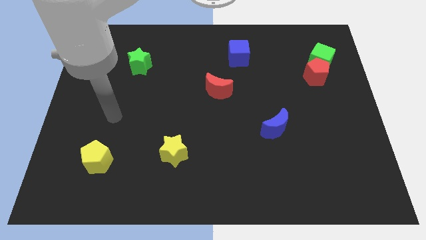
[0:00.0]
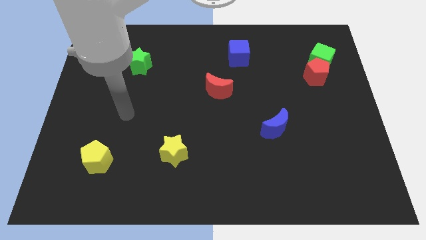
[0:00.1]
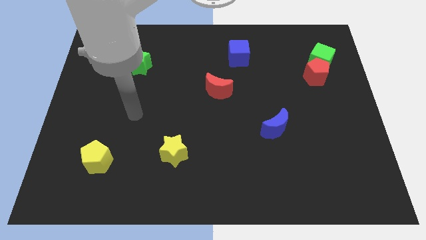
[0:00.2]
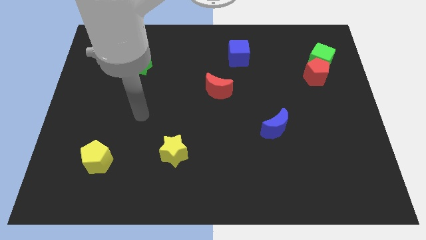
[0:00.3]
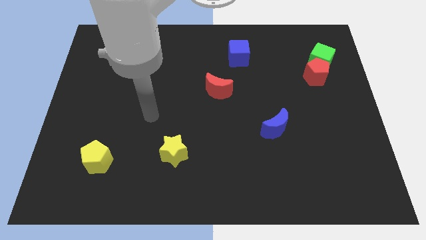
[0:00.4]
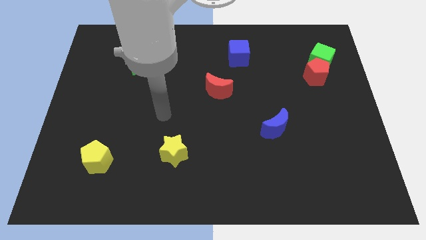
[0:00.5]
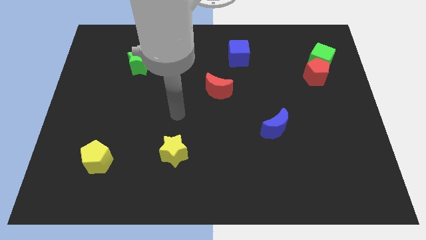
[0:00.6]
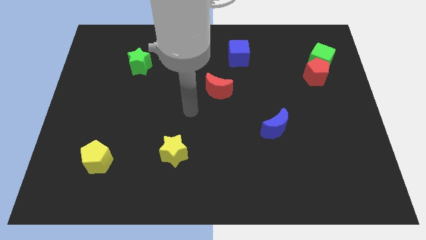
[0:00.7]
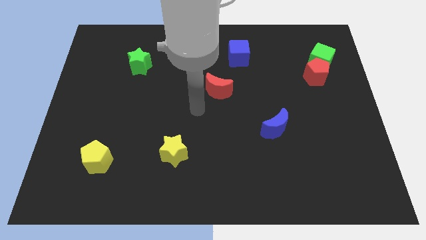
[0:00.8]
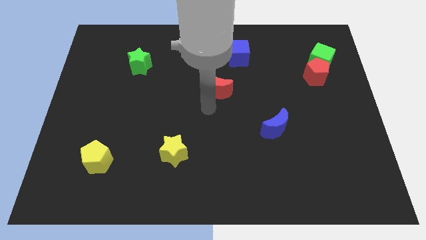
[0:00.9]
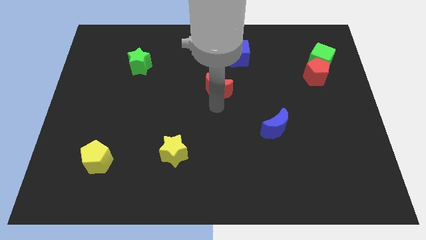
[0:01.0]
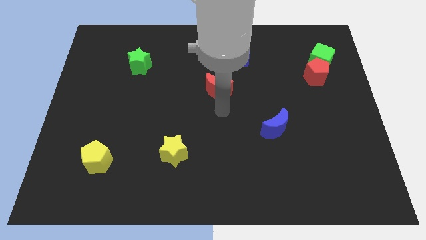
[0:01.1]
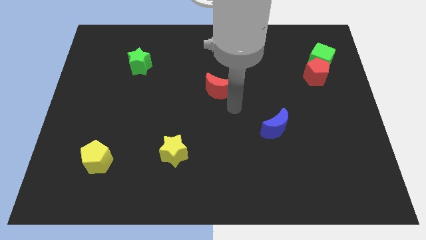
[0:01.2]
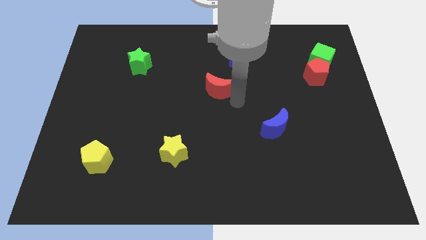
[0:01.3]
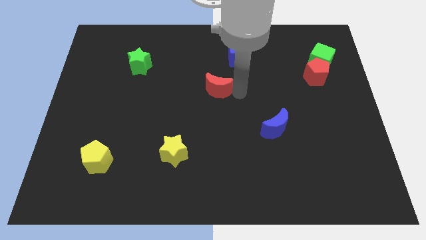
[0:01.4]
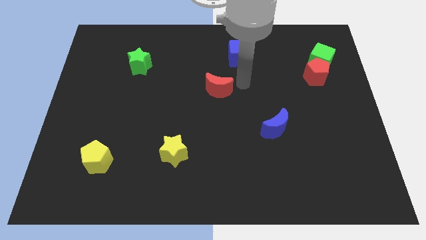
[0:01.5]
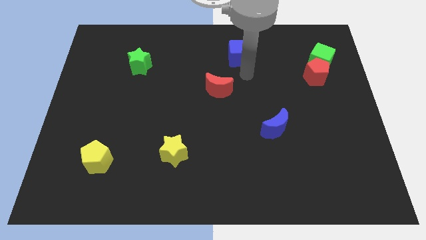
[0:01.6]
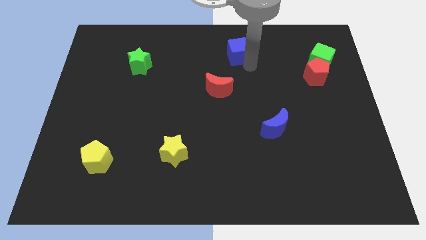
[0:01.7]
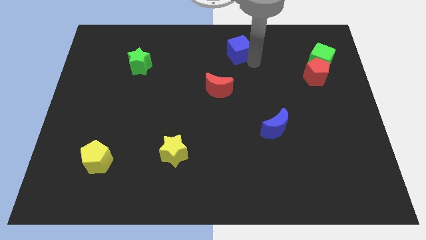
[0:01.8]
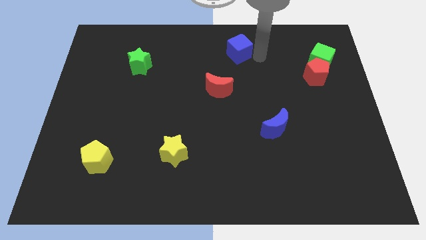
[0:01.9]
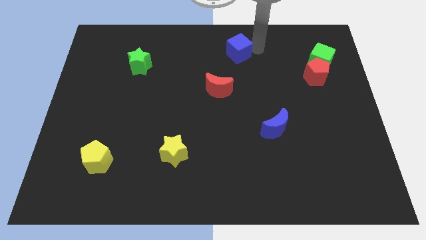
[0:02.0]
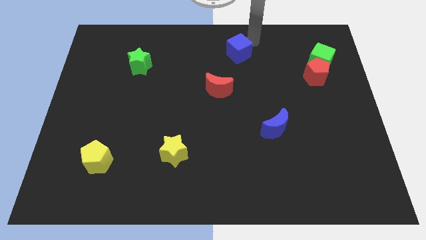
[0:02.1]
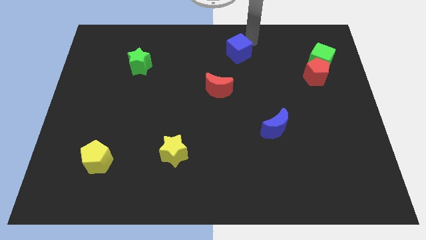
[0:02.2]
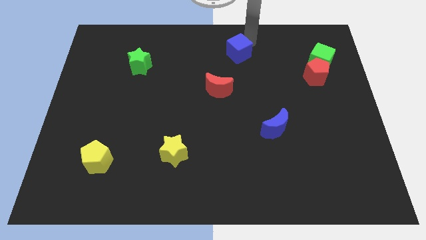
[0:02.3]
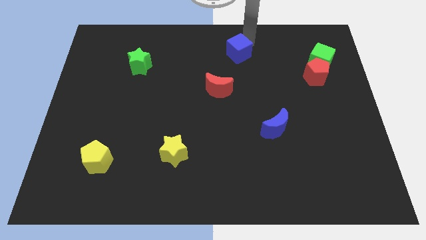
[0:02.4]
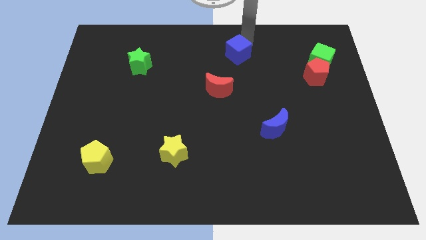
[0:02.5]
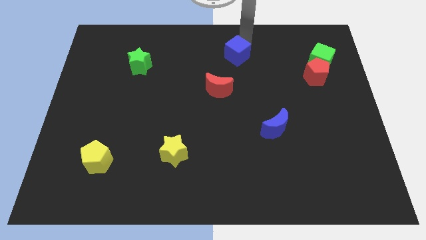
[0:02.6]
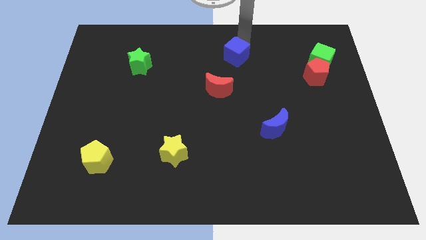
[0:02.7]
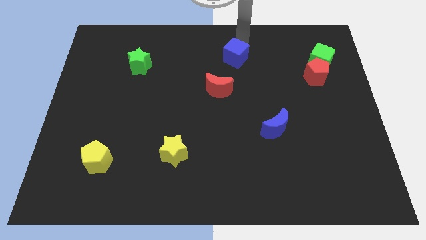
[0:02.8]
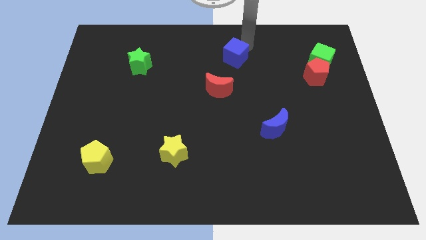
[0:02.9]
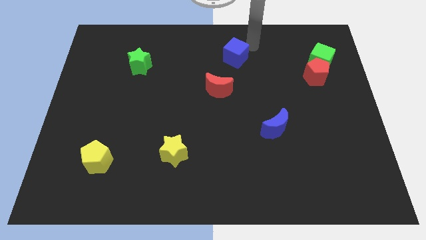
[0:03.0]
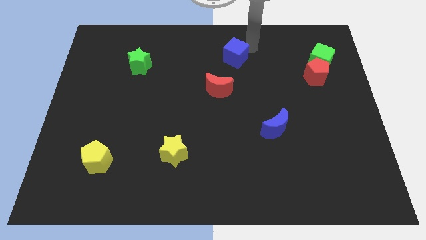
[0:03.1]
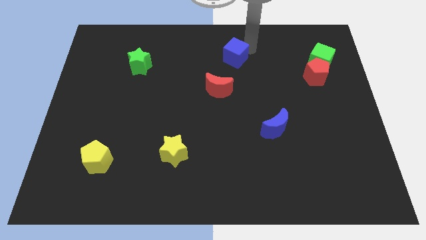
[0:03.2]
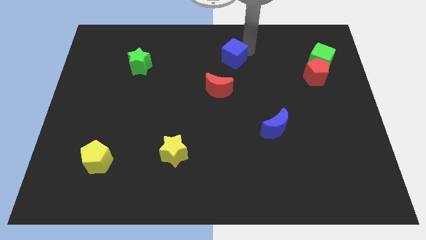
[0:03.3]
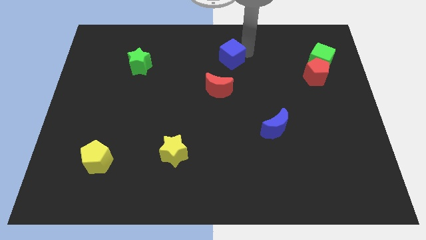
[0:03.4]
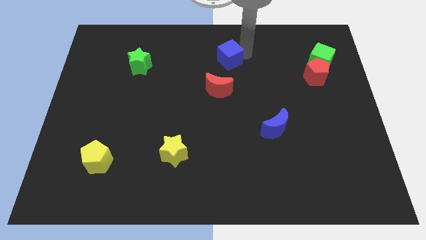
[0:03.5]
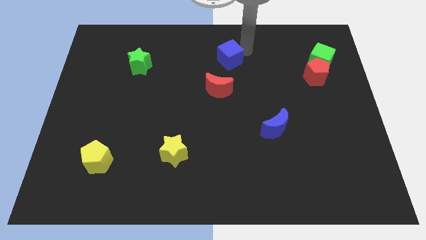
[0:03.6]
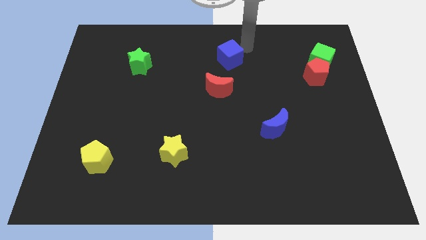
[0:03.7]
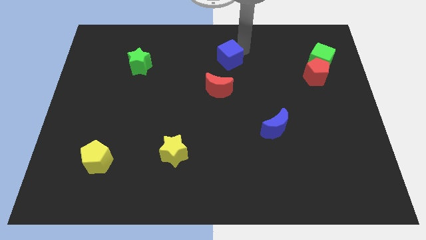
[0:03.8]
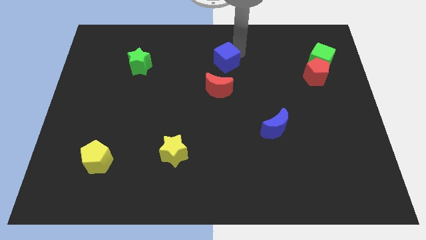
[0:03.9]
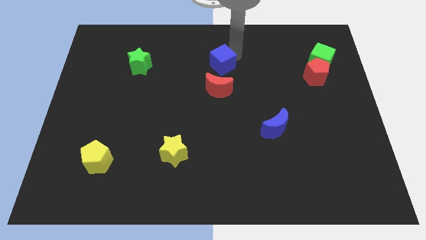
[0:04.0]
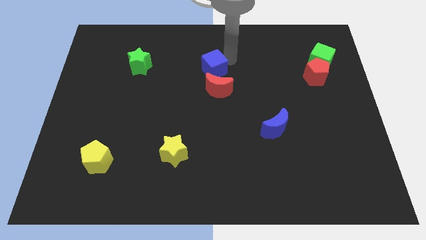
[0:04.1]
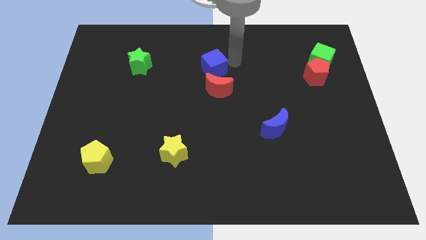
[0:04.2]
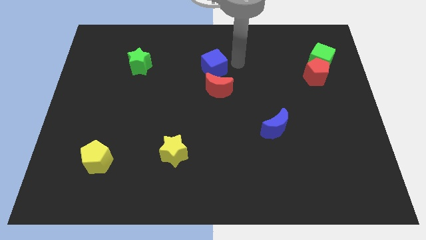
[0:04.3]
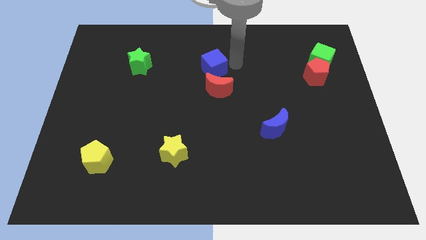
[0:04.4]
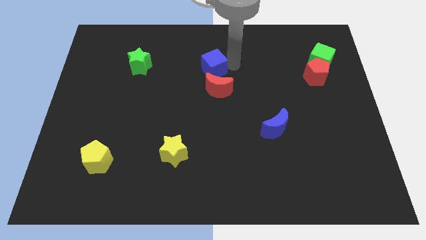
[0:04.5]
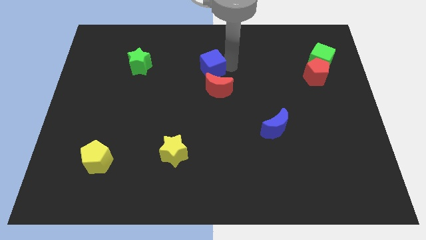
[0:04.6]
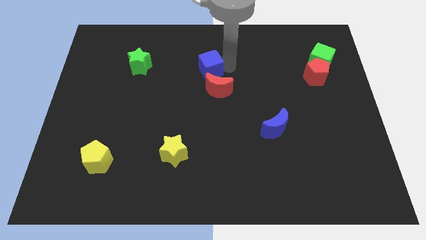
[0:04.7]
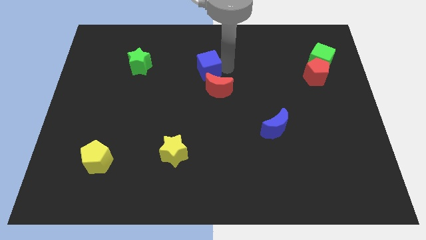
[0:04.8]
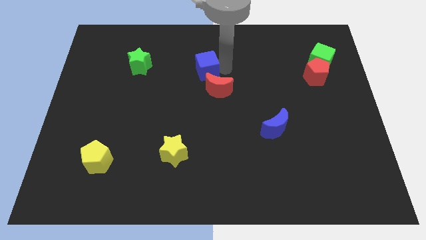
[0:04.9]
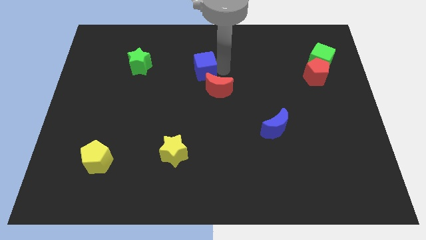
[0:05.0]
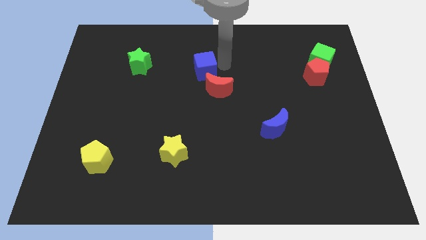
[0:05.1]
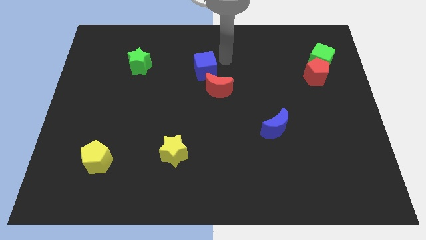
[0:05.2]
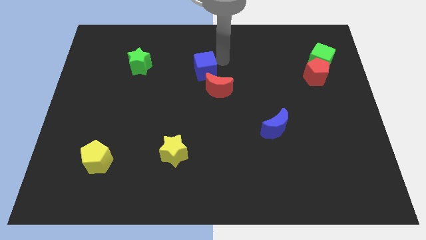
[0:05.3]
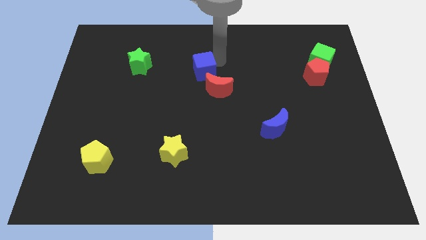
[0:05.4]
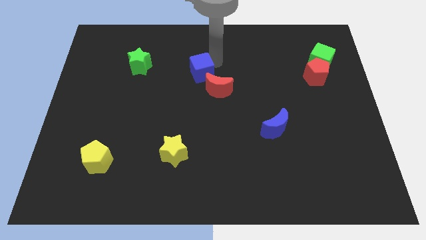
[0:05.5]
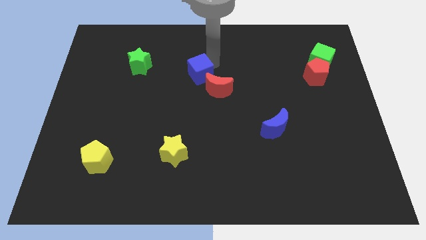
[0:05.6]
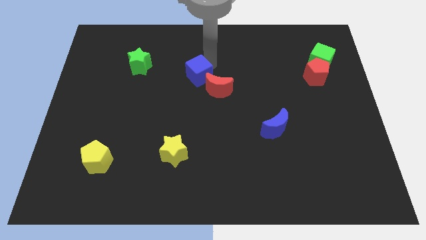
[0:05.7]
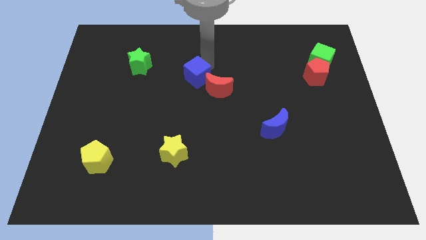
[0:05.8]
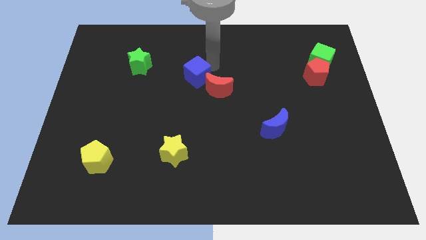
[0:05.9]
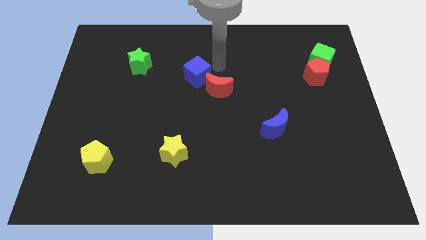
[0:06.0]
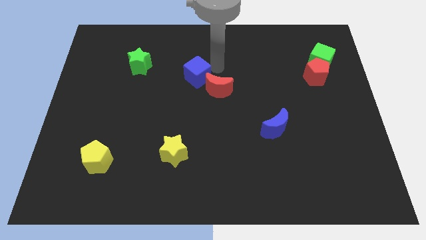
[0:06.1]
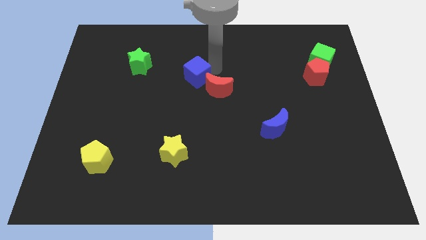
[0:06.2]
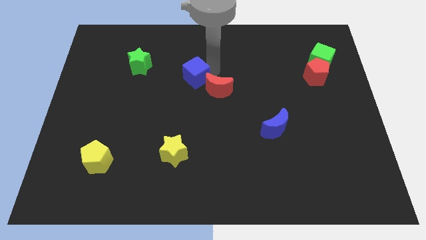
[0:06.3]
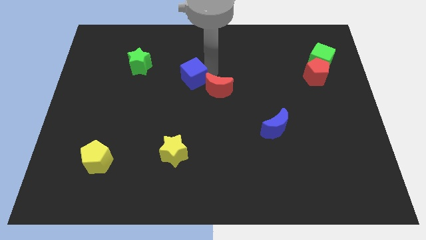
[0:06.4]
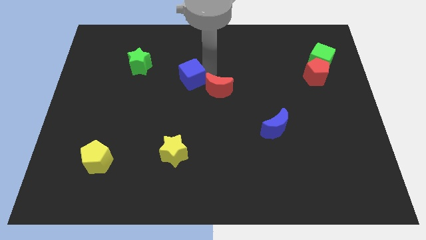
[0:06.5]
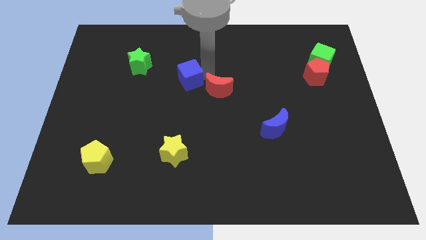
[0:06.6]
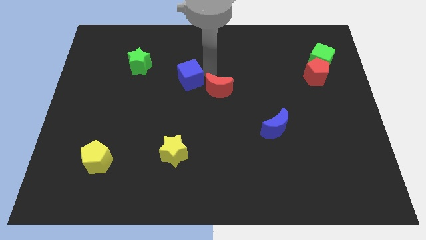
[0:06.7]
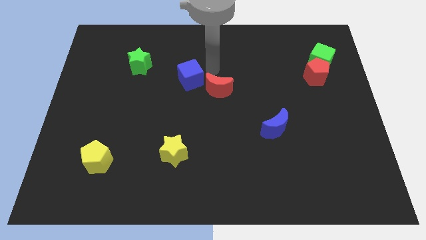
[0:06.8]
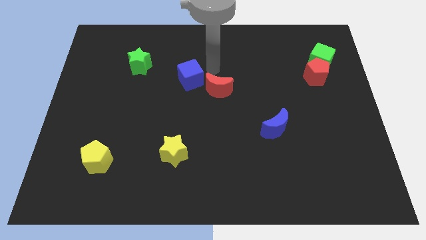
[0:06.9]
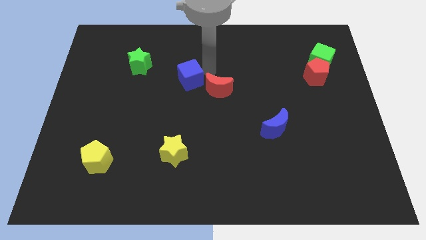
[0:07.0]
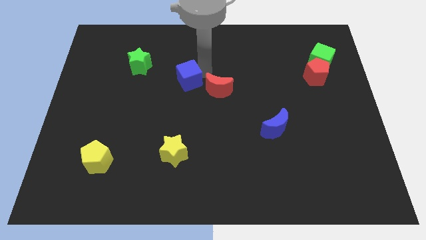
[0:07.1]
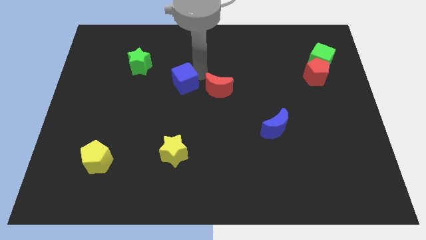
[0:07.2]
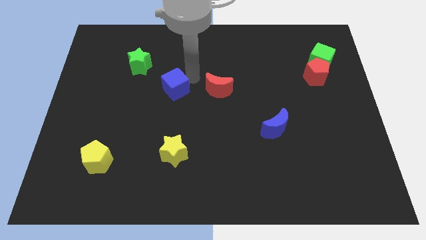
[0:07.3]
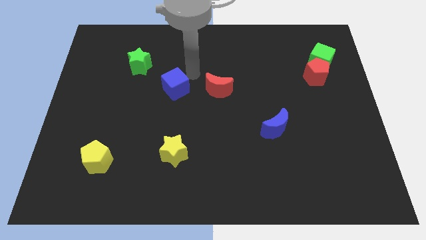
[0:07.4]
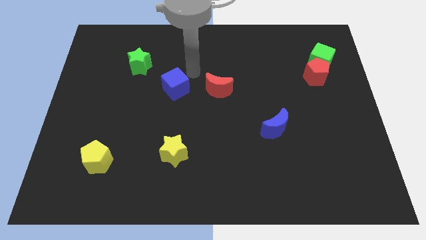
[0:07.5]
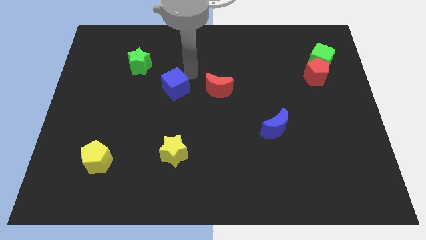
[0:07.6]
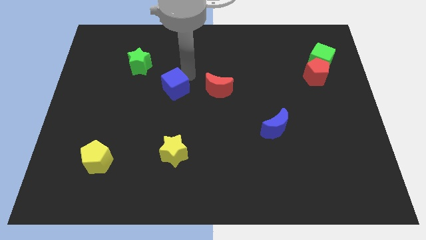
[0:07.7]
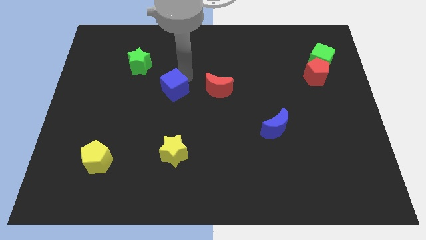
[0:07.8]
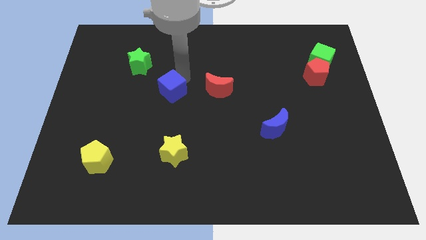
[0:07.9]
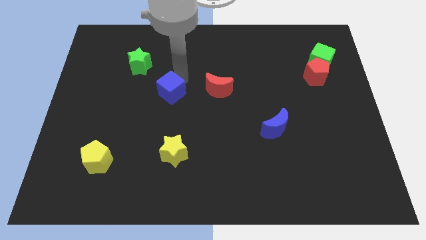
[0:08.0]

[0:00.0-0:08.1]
slide the blue cube down and then to the left
